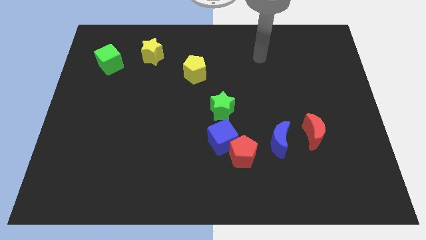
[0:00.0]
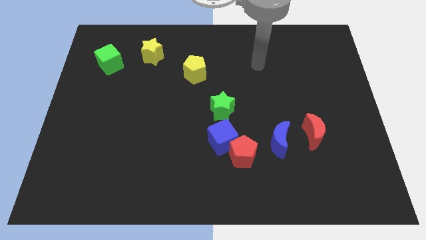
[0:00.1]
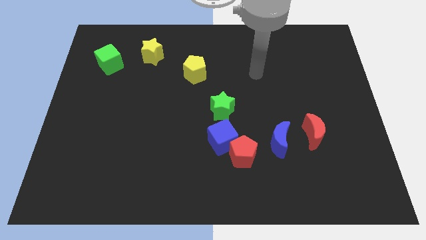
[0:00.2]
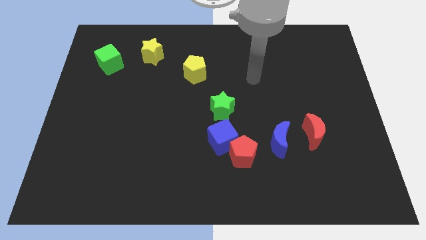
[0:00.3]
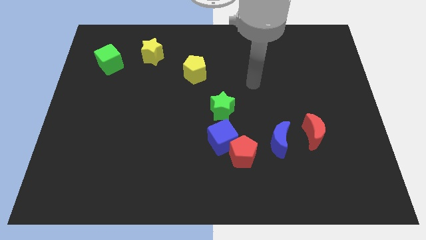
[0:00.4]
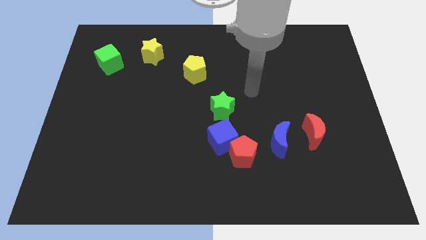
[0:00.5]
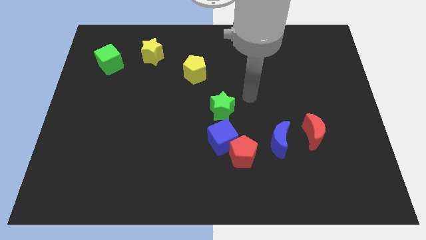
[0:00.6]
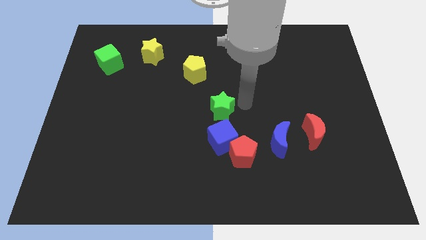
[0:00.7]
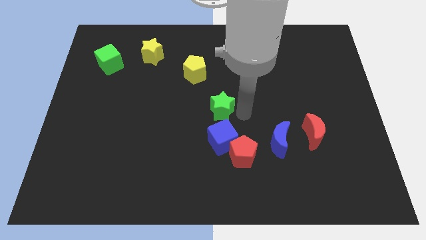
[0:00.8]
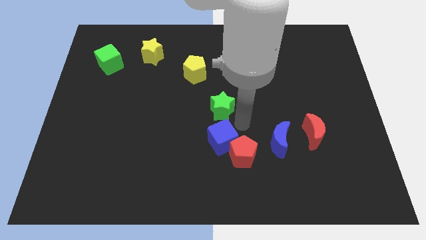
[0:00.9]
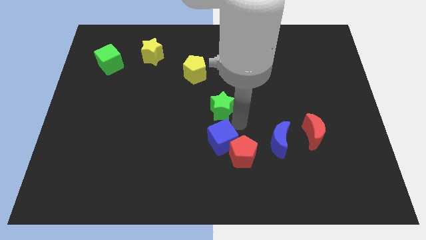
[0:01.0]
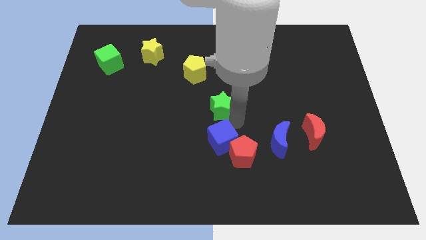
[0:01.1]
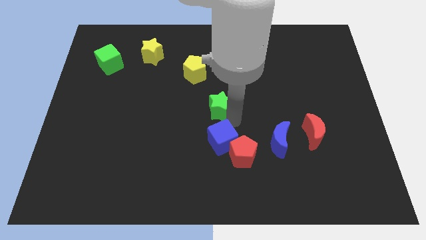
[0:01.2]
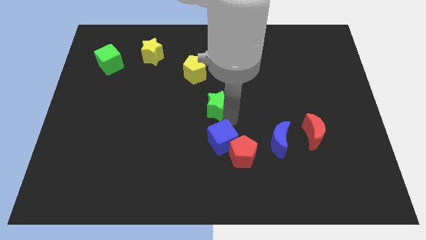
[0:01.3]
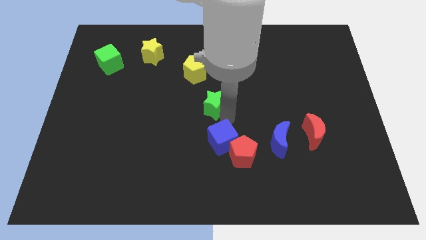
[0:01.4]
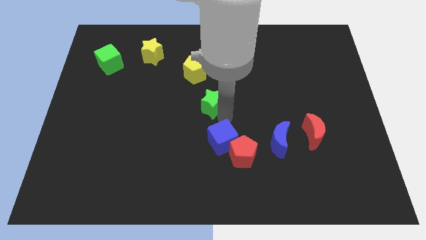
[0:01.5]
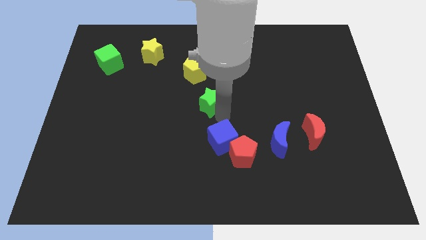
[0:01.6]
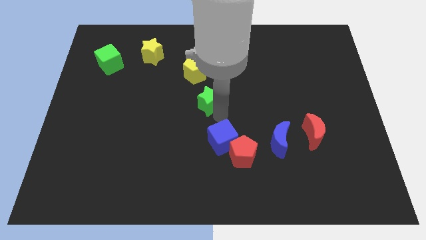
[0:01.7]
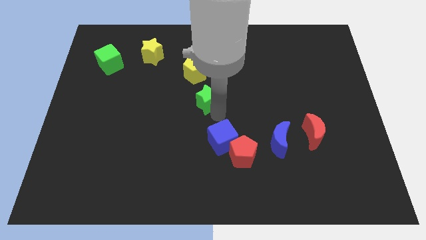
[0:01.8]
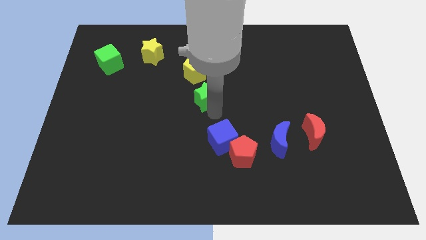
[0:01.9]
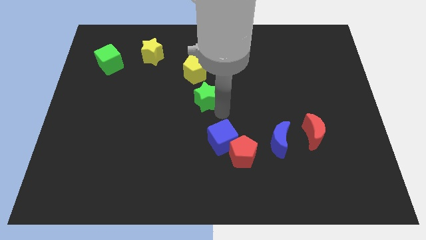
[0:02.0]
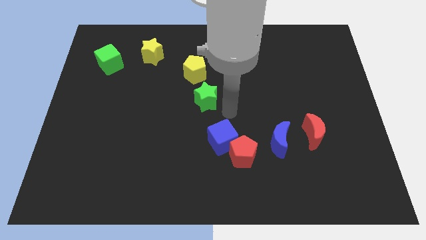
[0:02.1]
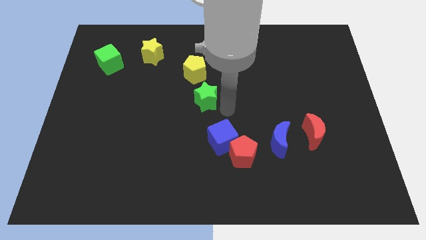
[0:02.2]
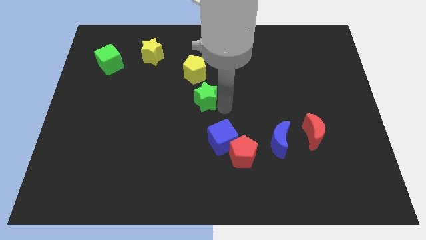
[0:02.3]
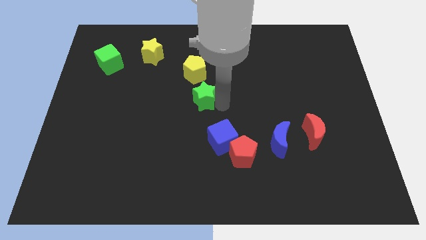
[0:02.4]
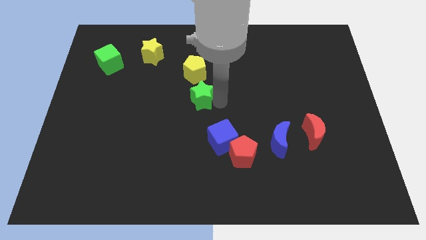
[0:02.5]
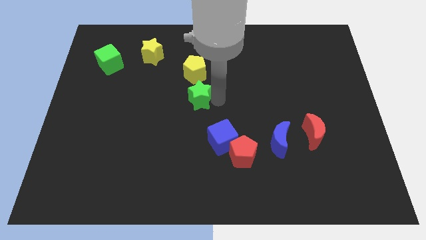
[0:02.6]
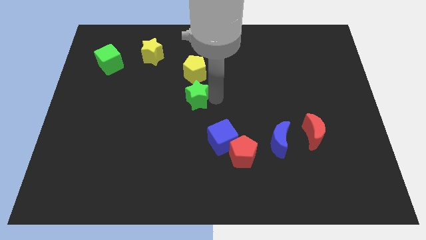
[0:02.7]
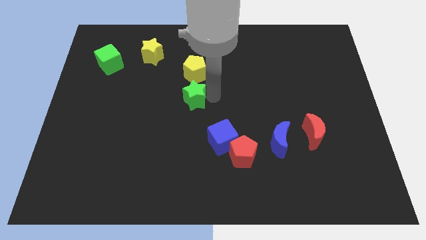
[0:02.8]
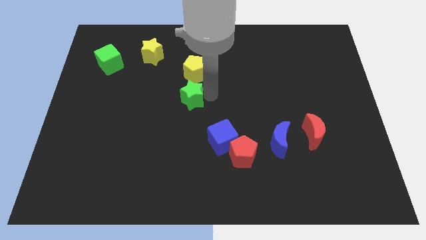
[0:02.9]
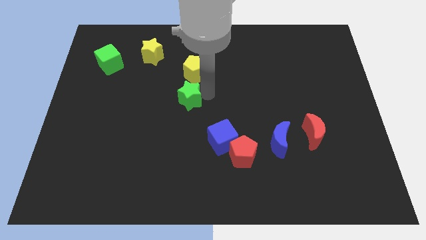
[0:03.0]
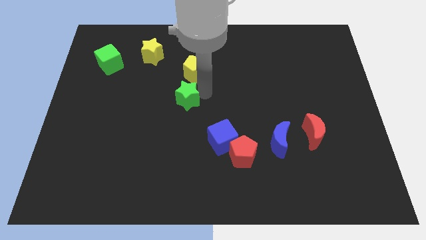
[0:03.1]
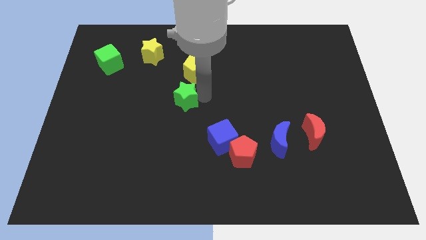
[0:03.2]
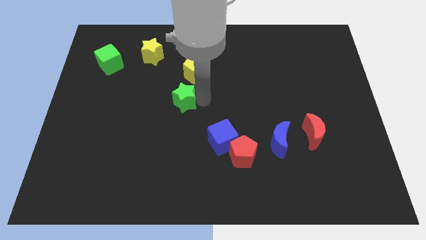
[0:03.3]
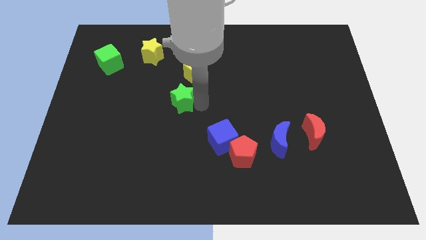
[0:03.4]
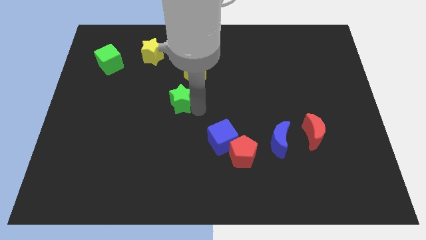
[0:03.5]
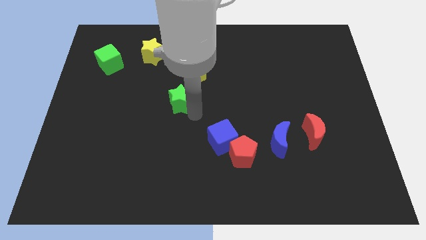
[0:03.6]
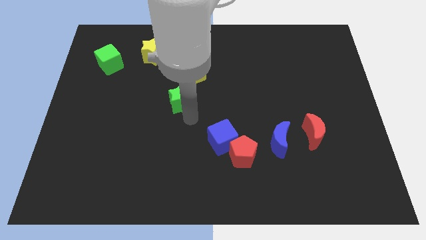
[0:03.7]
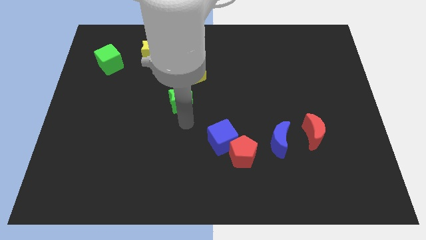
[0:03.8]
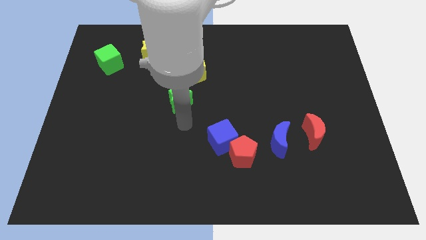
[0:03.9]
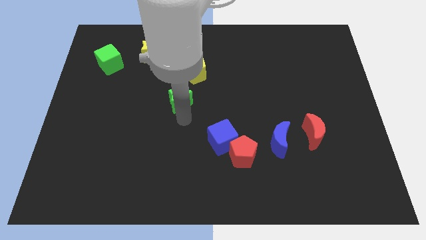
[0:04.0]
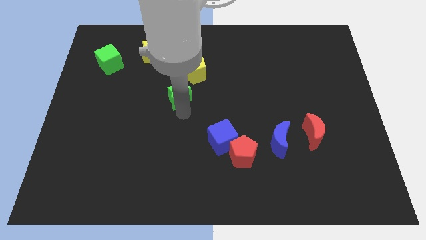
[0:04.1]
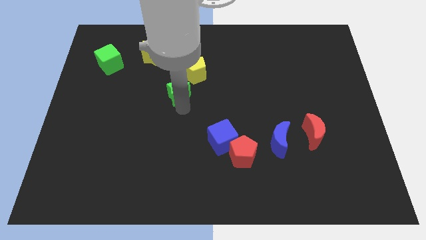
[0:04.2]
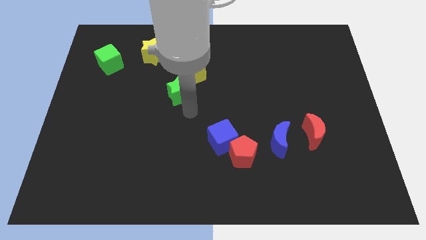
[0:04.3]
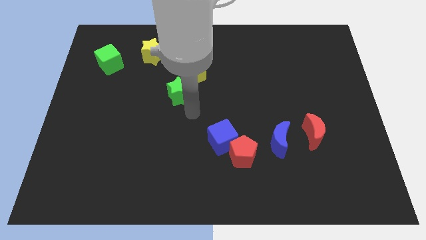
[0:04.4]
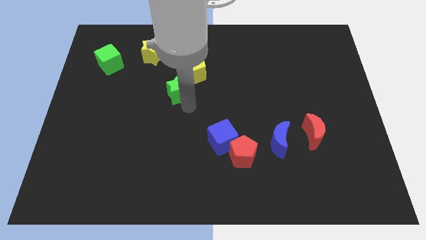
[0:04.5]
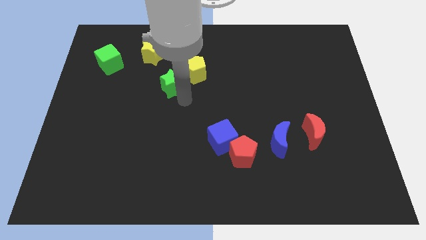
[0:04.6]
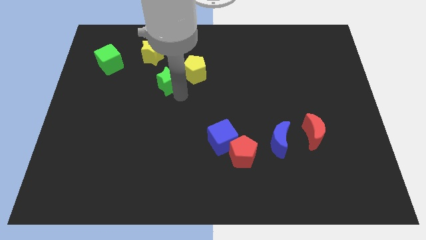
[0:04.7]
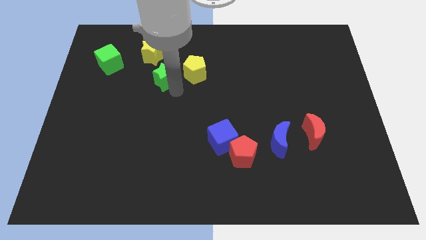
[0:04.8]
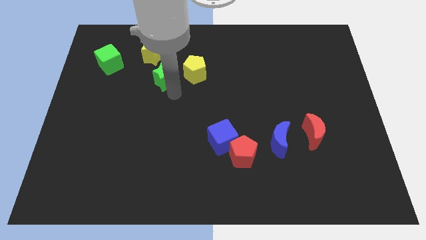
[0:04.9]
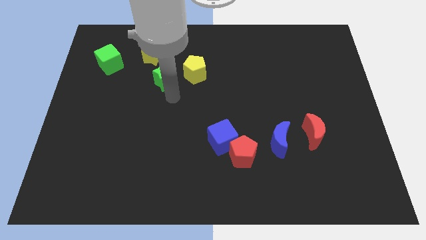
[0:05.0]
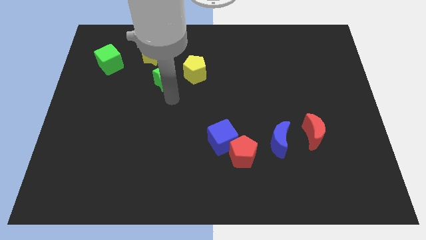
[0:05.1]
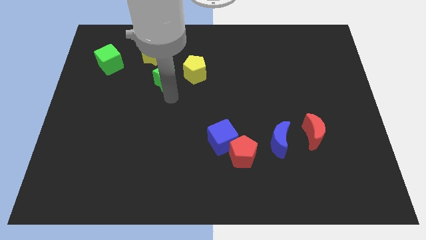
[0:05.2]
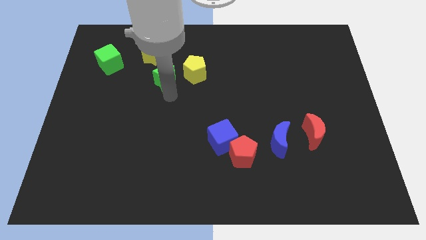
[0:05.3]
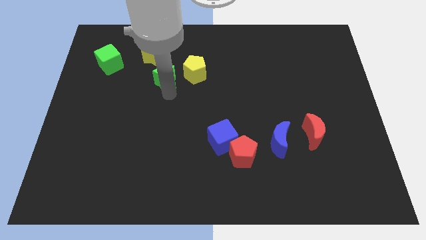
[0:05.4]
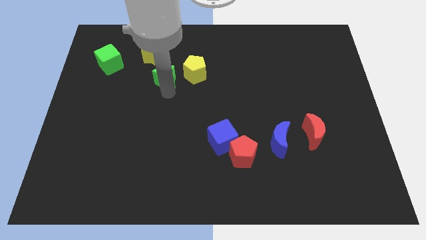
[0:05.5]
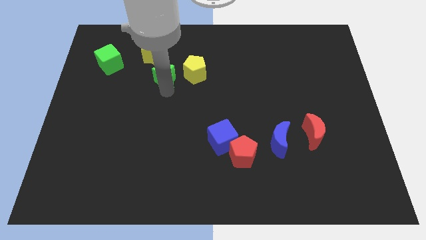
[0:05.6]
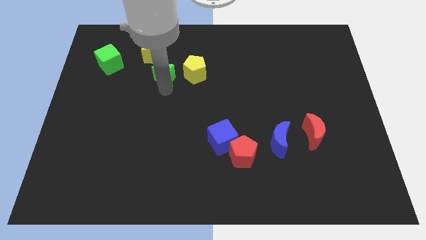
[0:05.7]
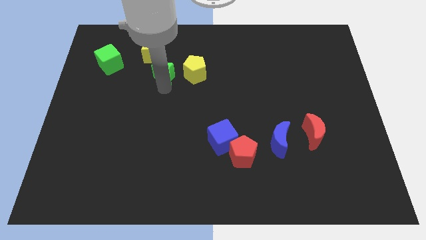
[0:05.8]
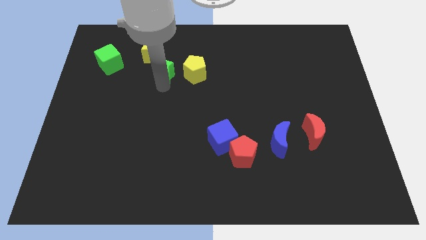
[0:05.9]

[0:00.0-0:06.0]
push the green star just right of the green cube

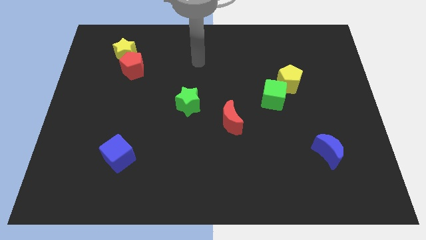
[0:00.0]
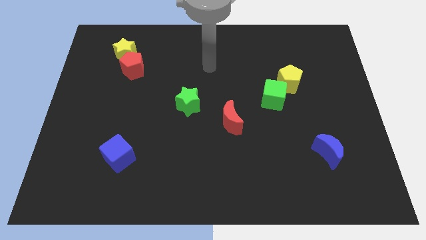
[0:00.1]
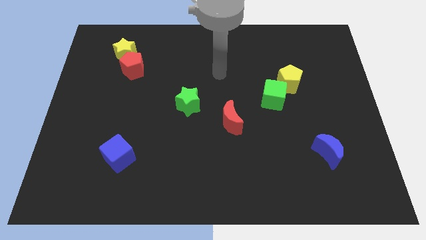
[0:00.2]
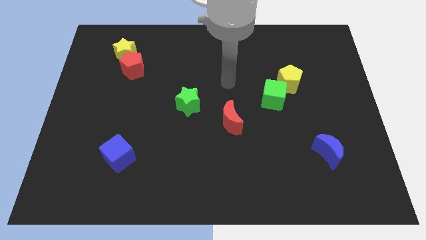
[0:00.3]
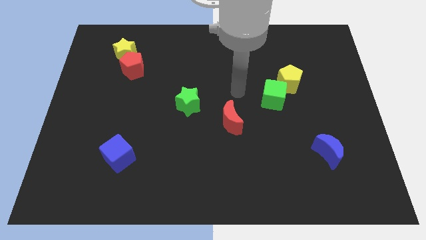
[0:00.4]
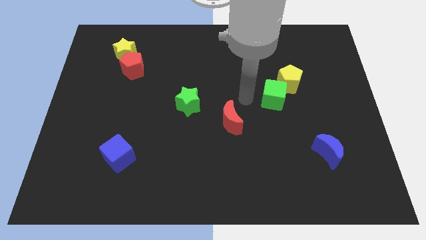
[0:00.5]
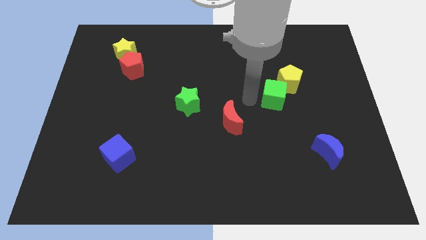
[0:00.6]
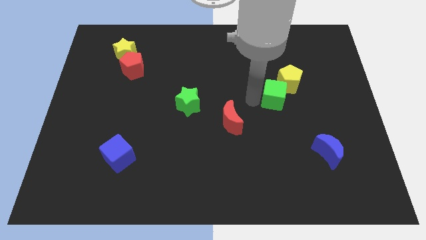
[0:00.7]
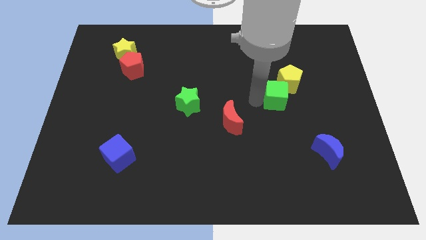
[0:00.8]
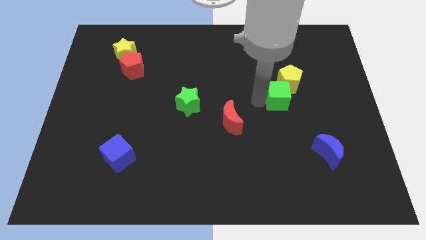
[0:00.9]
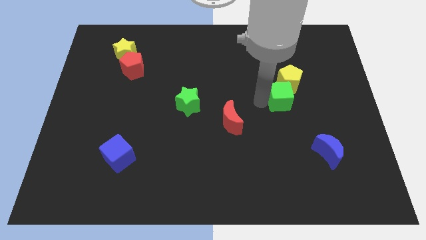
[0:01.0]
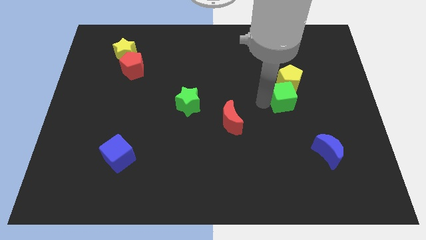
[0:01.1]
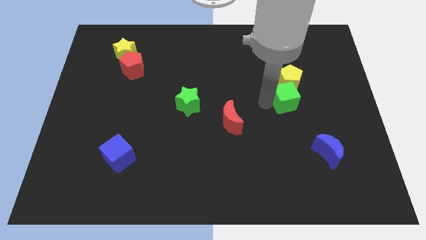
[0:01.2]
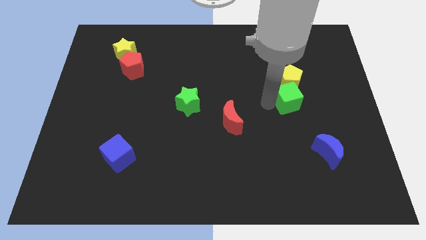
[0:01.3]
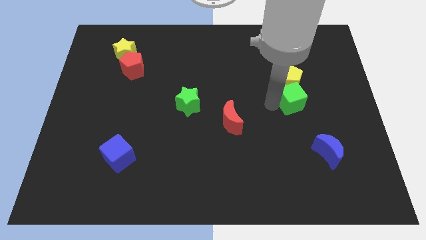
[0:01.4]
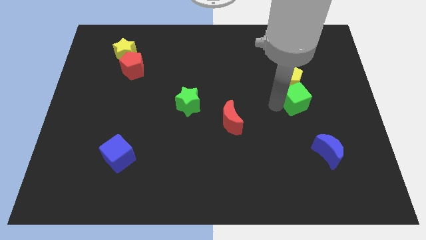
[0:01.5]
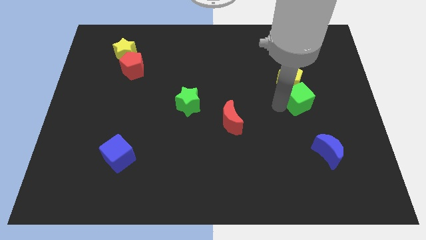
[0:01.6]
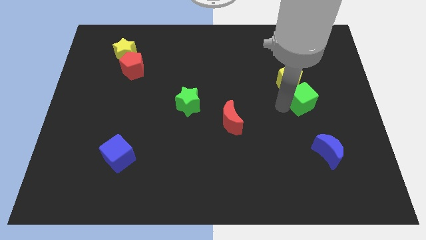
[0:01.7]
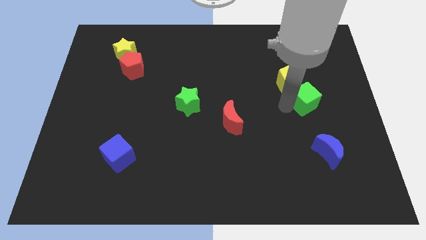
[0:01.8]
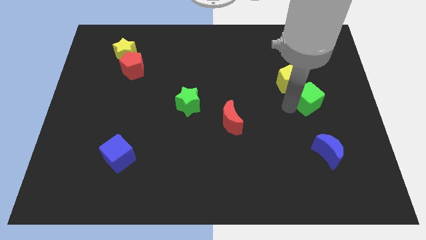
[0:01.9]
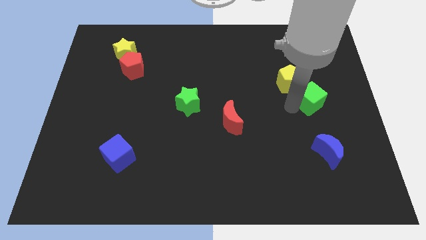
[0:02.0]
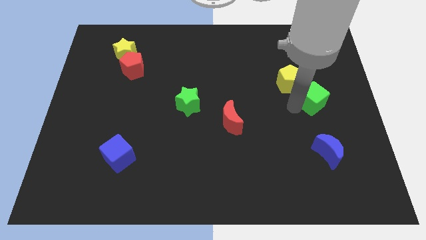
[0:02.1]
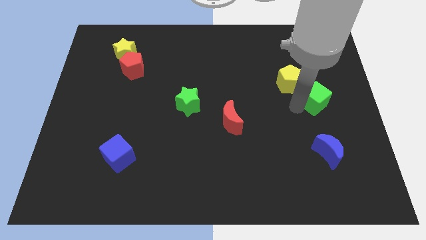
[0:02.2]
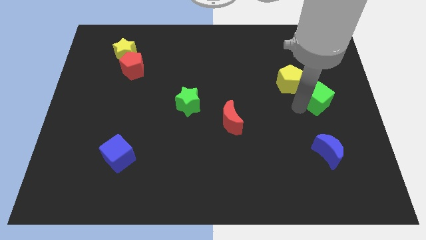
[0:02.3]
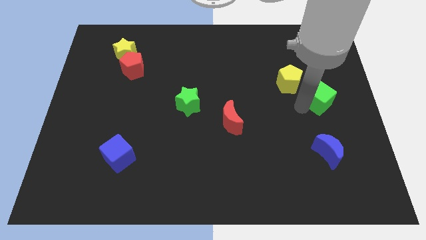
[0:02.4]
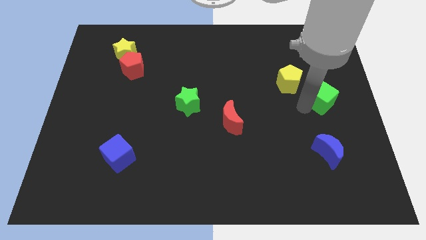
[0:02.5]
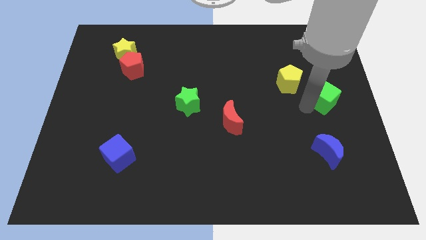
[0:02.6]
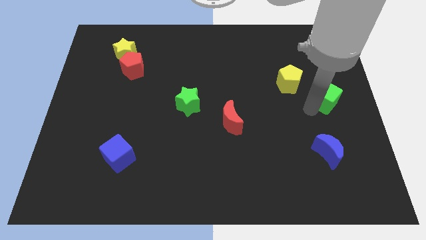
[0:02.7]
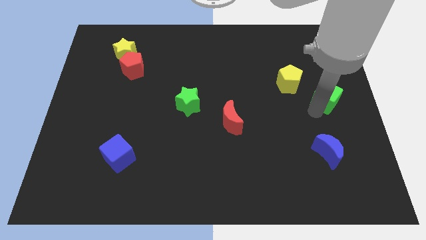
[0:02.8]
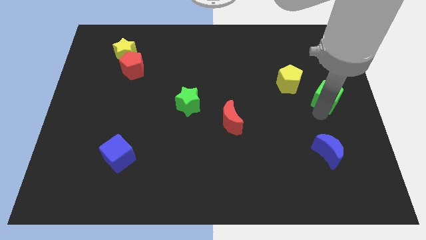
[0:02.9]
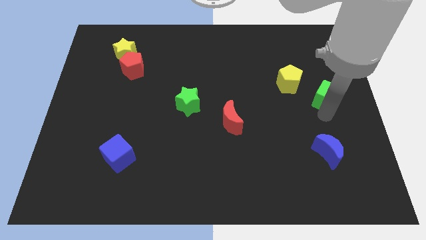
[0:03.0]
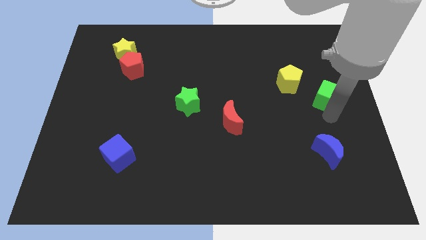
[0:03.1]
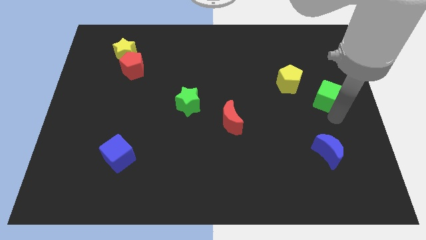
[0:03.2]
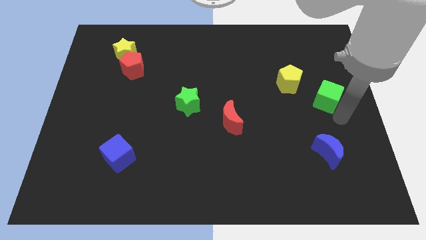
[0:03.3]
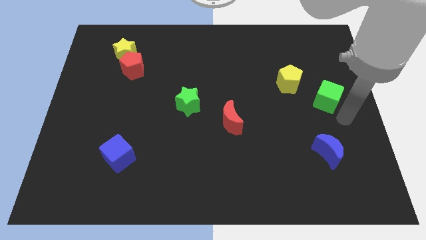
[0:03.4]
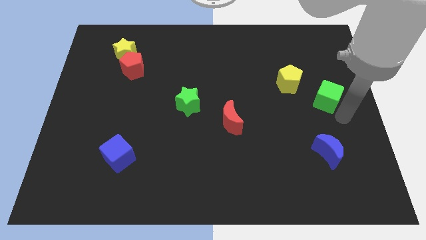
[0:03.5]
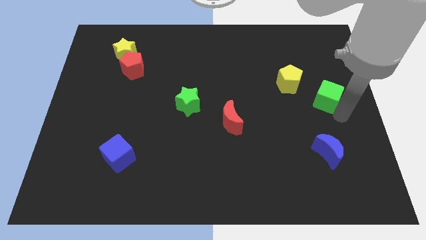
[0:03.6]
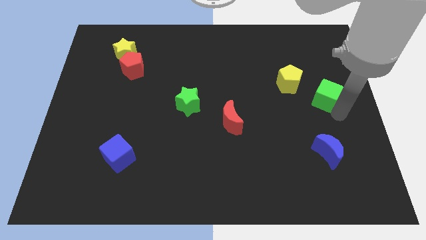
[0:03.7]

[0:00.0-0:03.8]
put the green cube just right of the yellow pentagon
